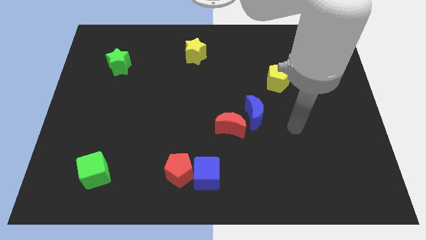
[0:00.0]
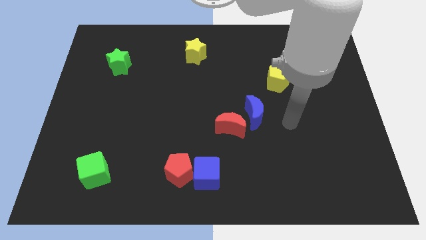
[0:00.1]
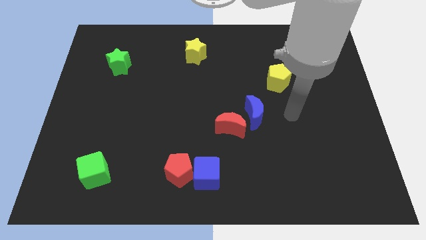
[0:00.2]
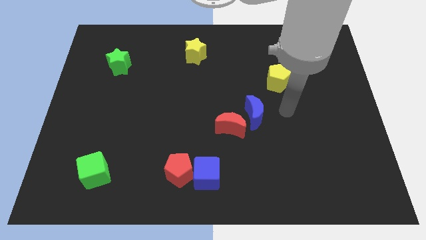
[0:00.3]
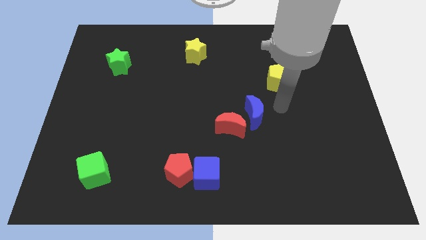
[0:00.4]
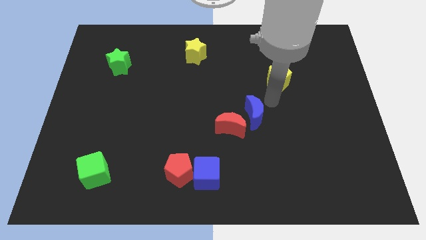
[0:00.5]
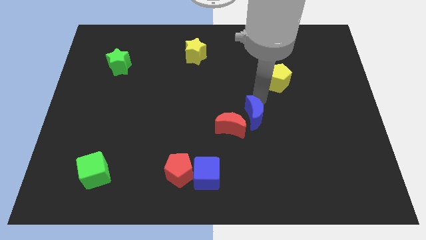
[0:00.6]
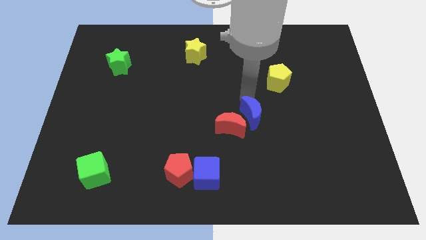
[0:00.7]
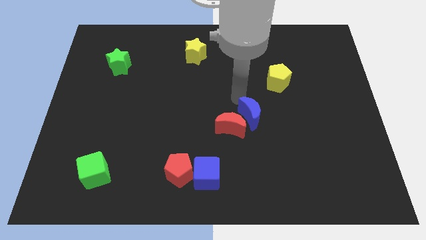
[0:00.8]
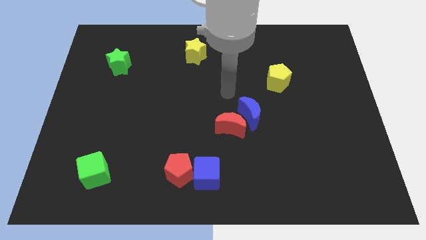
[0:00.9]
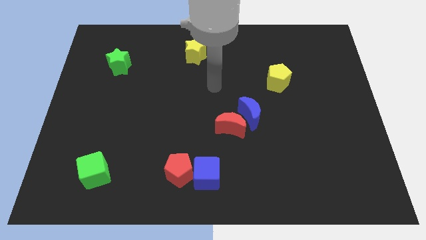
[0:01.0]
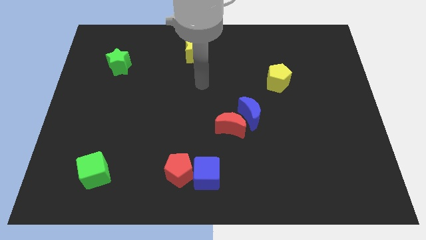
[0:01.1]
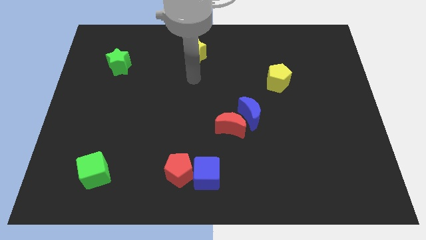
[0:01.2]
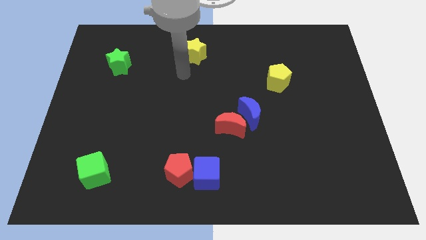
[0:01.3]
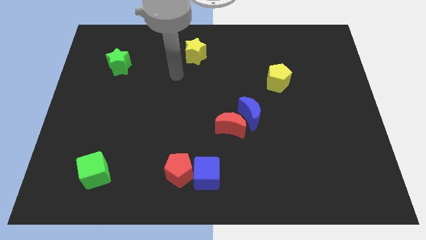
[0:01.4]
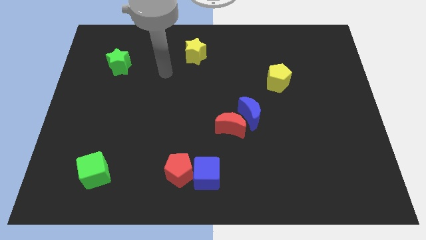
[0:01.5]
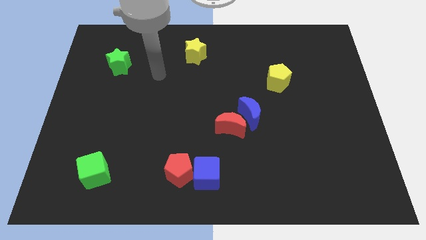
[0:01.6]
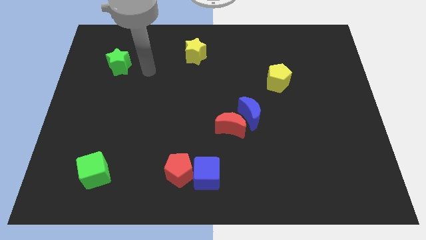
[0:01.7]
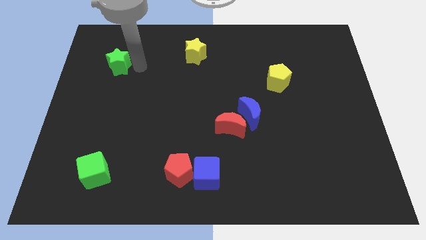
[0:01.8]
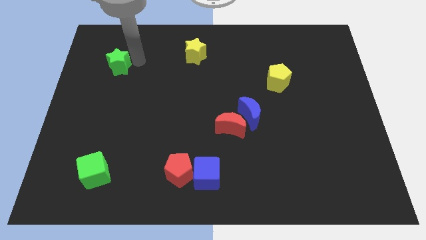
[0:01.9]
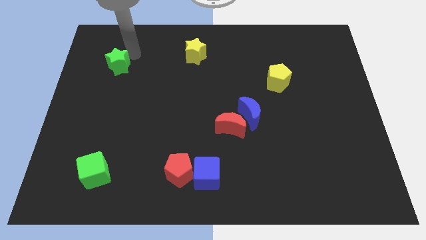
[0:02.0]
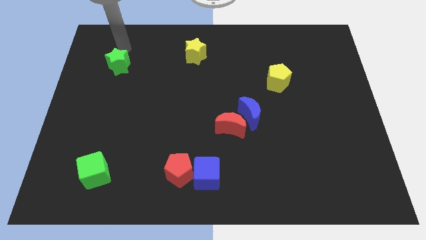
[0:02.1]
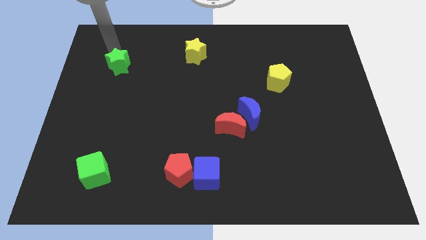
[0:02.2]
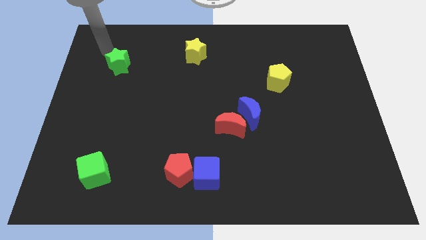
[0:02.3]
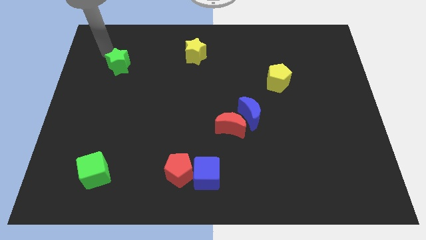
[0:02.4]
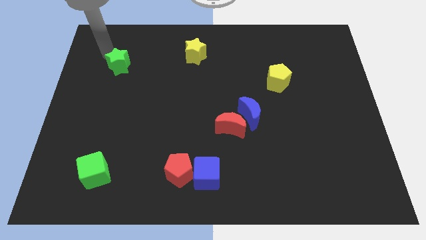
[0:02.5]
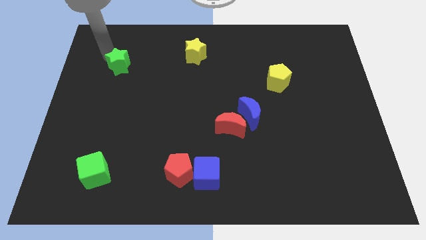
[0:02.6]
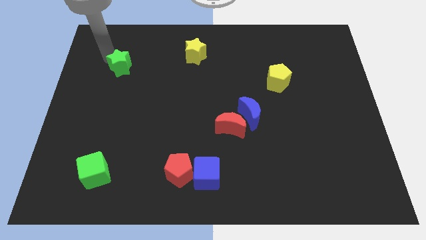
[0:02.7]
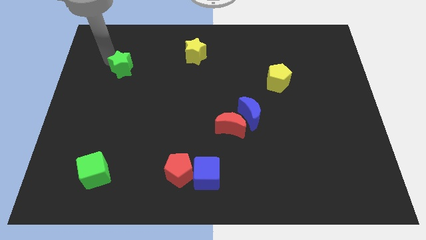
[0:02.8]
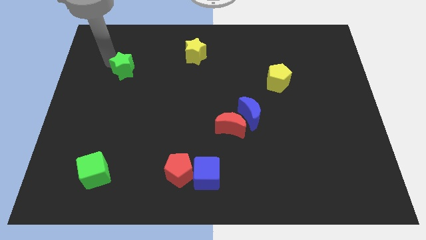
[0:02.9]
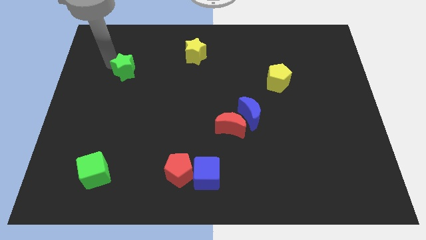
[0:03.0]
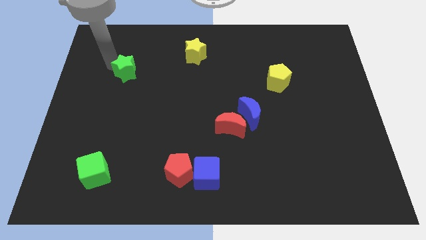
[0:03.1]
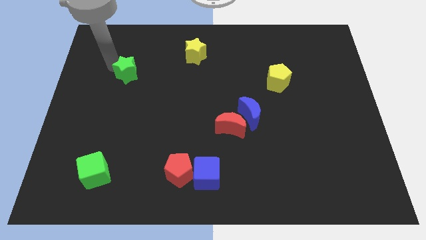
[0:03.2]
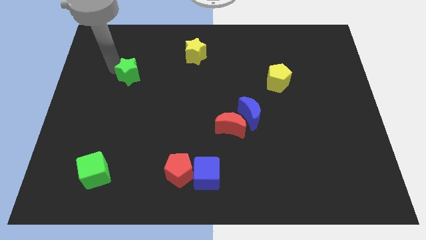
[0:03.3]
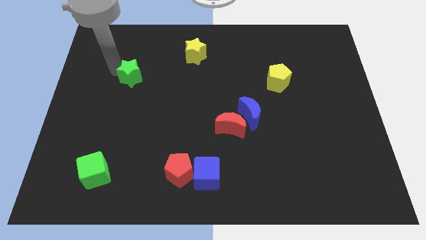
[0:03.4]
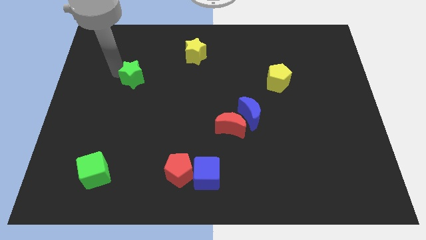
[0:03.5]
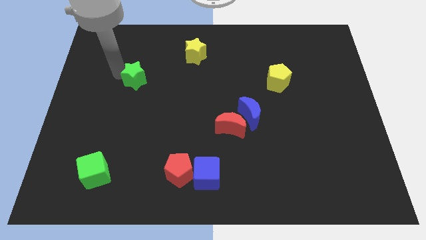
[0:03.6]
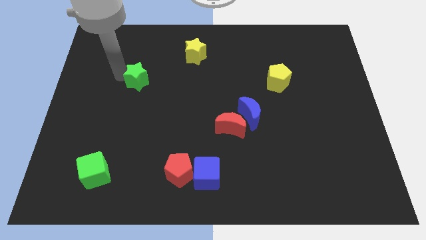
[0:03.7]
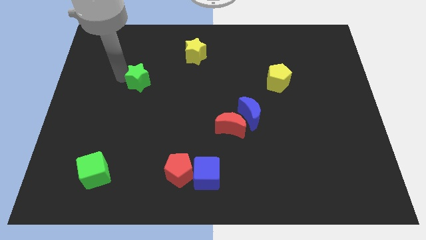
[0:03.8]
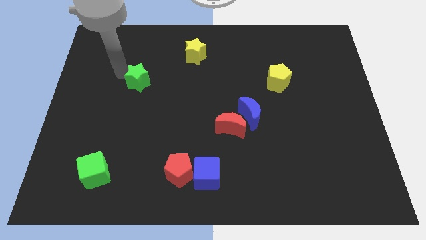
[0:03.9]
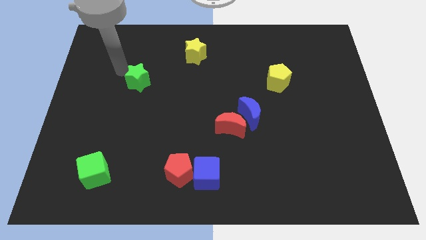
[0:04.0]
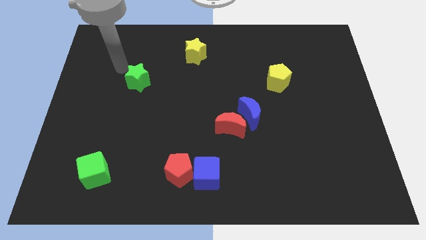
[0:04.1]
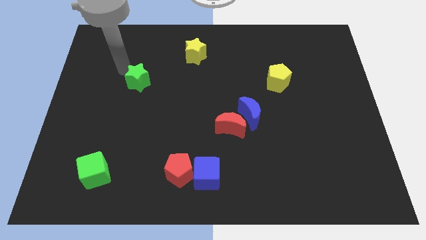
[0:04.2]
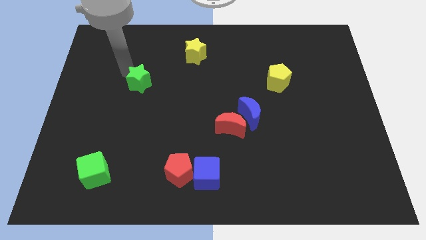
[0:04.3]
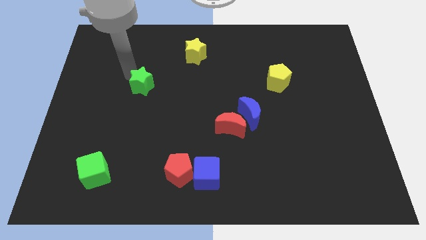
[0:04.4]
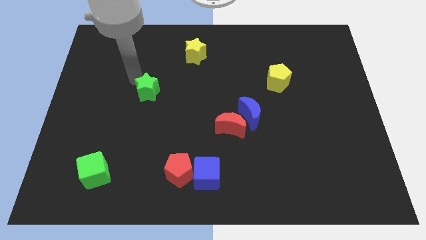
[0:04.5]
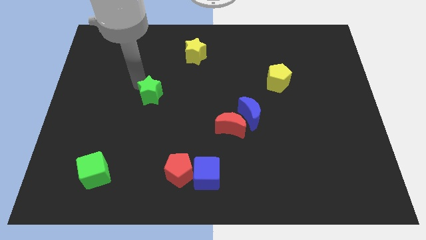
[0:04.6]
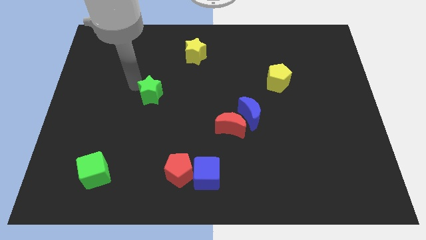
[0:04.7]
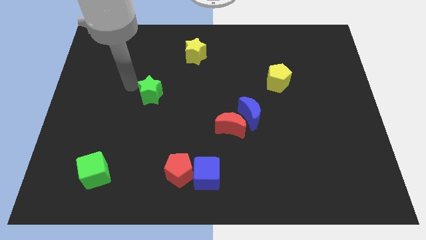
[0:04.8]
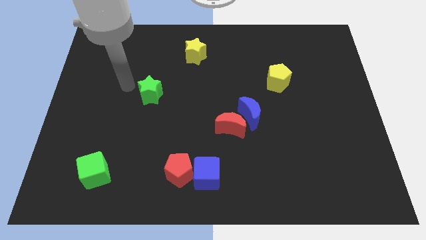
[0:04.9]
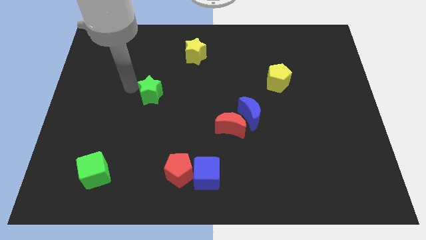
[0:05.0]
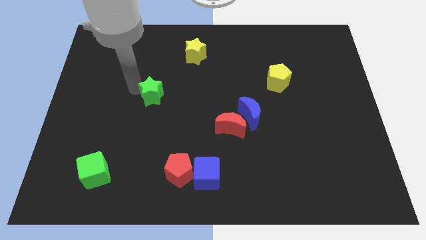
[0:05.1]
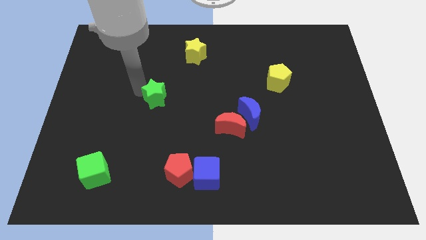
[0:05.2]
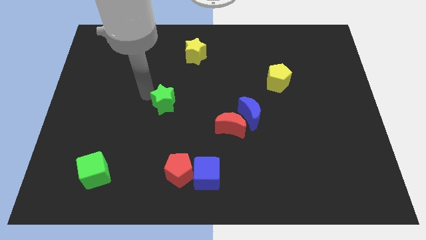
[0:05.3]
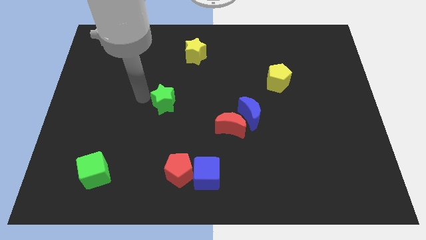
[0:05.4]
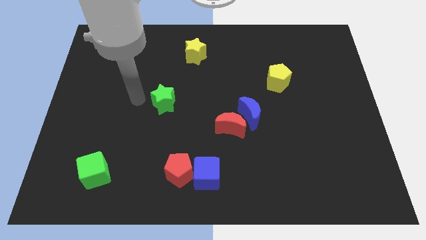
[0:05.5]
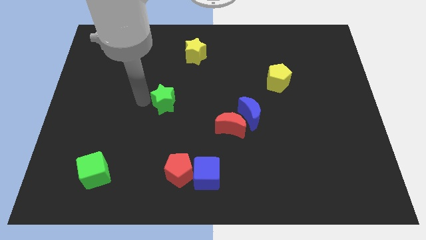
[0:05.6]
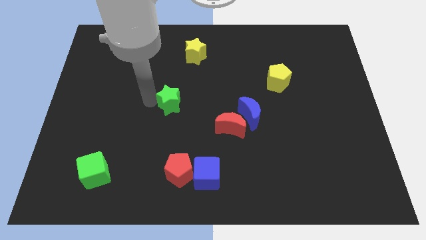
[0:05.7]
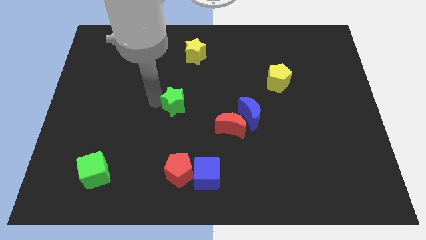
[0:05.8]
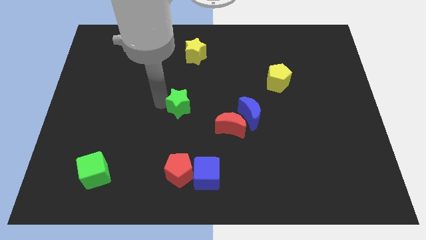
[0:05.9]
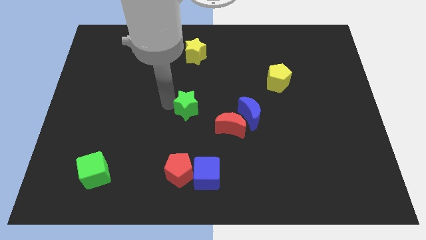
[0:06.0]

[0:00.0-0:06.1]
push the green star left of the blue moon

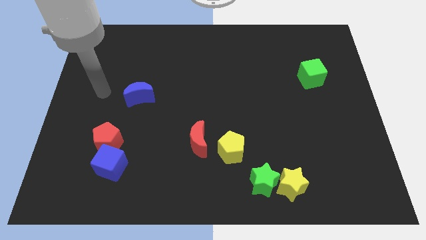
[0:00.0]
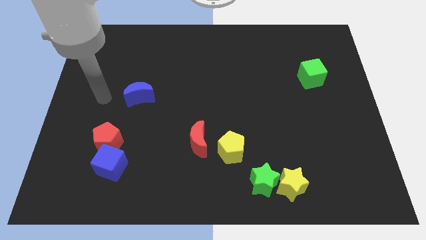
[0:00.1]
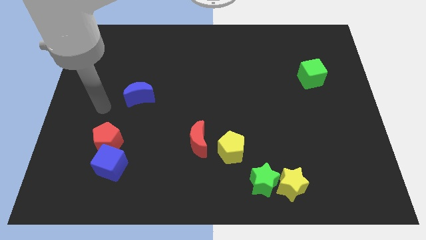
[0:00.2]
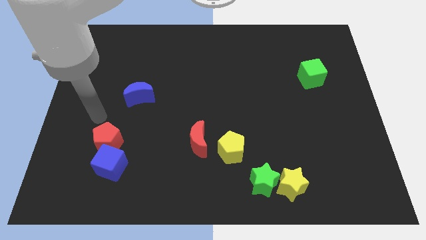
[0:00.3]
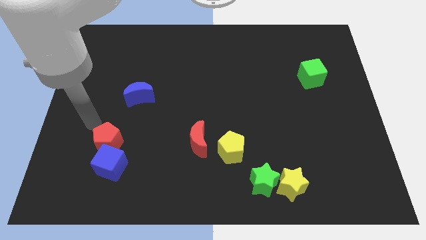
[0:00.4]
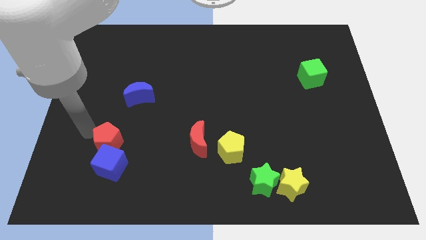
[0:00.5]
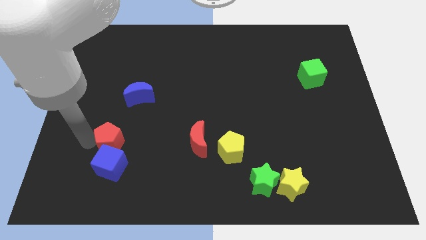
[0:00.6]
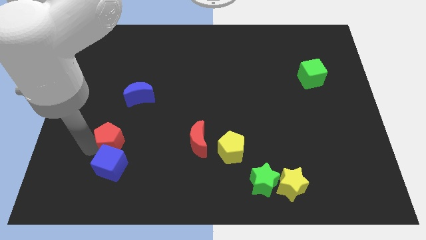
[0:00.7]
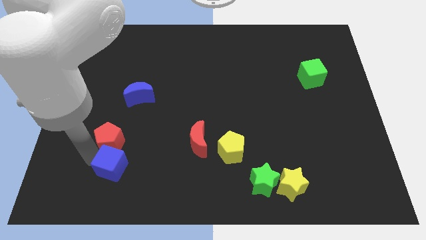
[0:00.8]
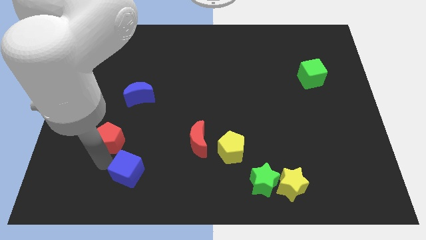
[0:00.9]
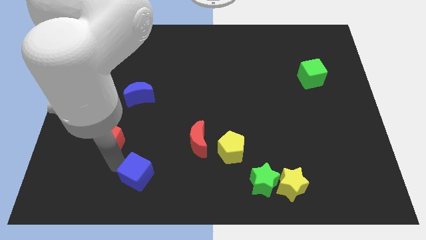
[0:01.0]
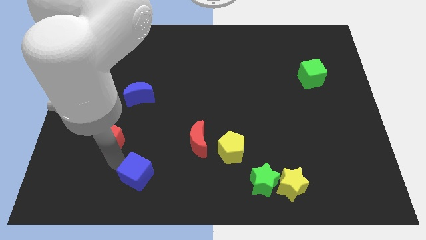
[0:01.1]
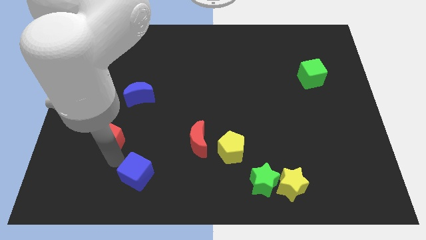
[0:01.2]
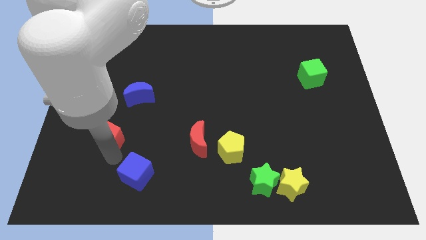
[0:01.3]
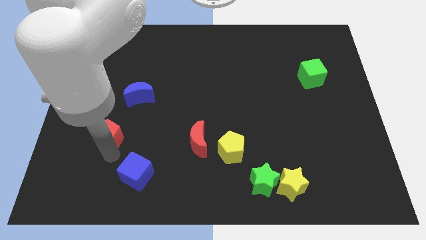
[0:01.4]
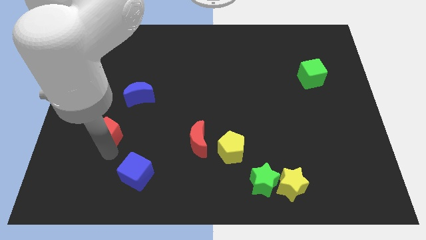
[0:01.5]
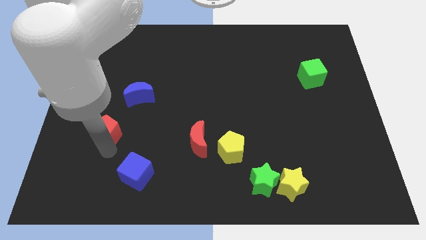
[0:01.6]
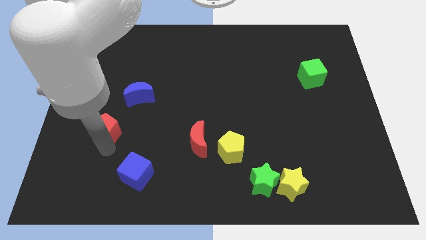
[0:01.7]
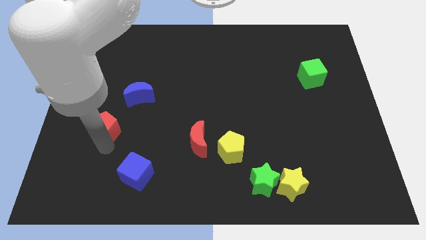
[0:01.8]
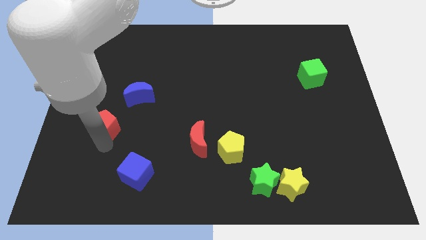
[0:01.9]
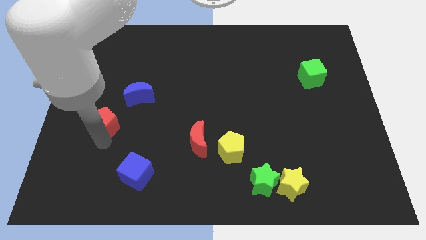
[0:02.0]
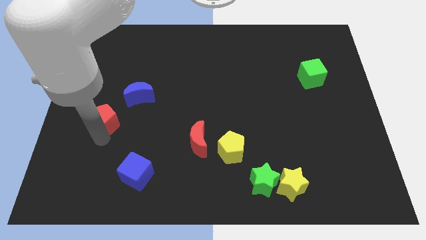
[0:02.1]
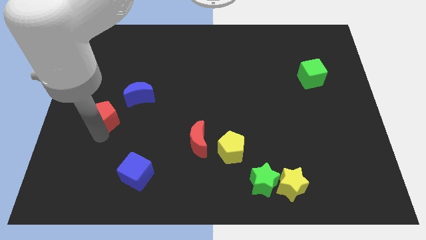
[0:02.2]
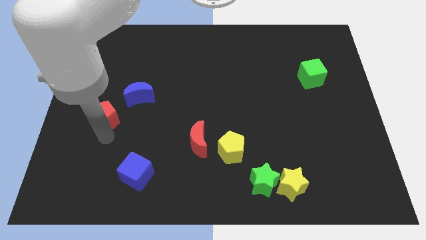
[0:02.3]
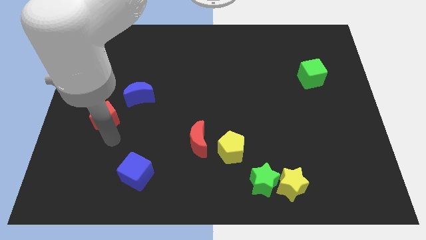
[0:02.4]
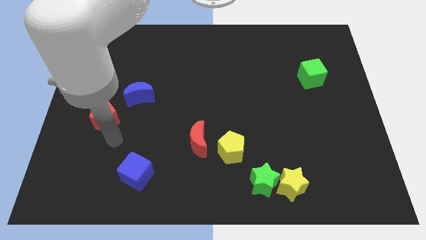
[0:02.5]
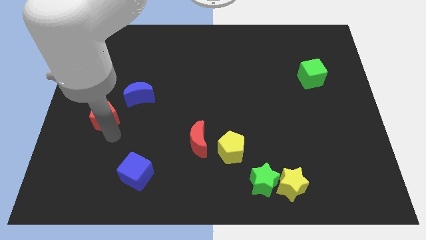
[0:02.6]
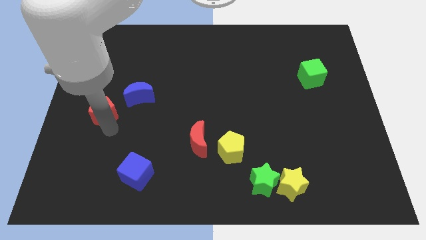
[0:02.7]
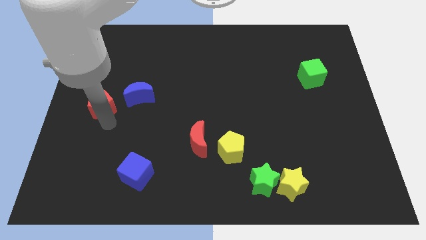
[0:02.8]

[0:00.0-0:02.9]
slide the red pentagon to the left of the blue moon
